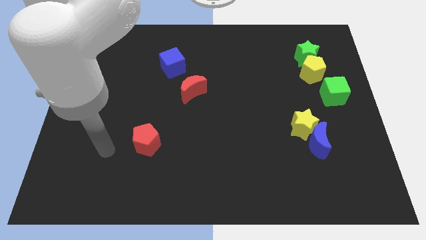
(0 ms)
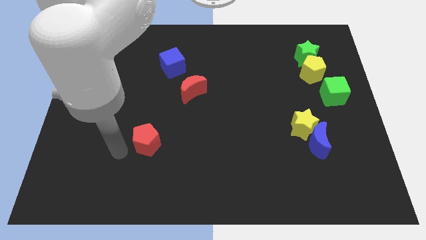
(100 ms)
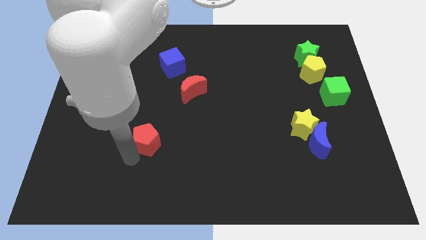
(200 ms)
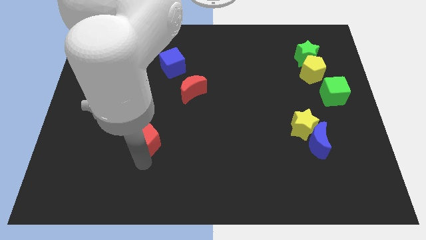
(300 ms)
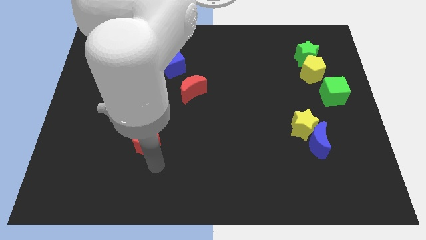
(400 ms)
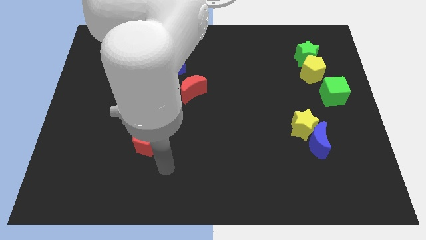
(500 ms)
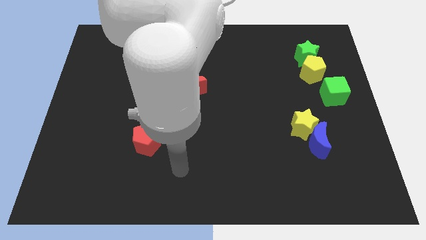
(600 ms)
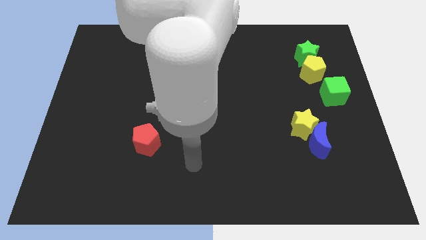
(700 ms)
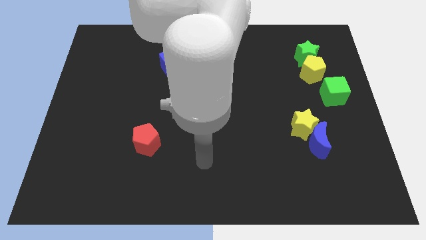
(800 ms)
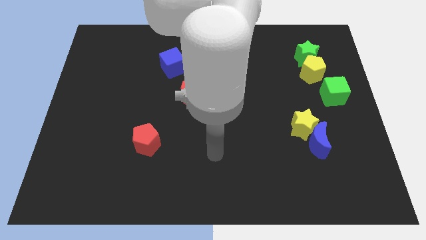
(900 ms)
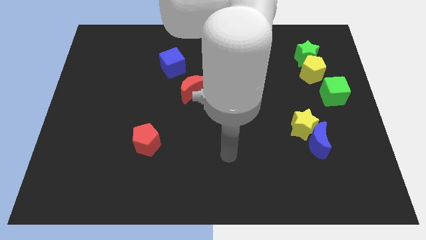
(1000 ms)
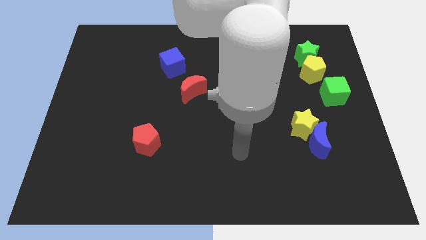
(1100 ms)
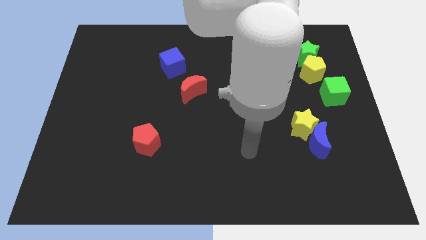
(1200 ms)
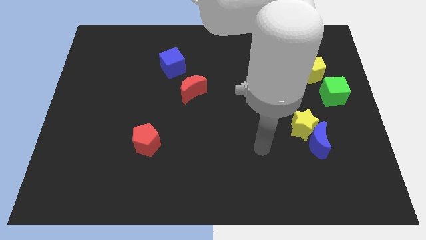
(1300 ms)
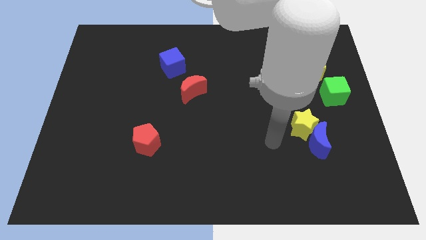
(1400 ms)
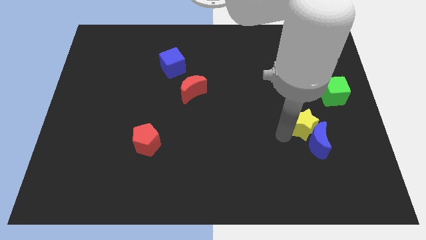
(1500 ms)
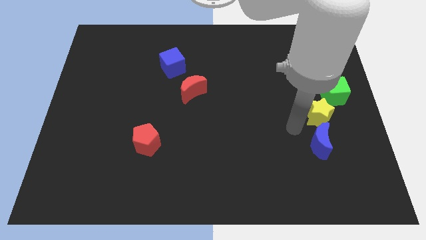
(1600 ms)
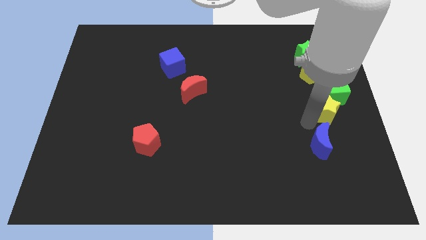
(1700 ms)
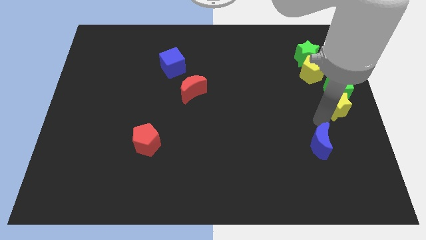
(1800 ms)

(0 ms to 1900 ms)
separate the blue moon from the yellow star

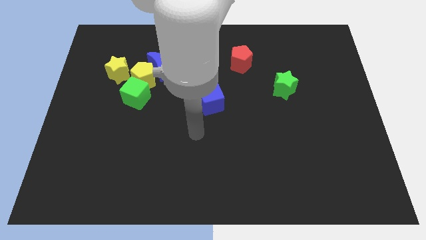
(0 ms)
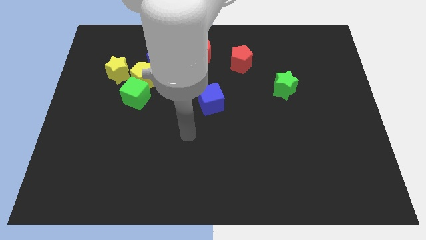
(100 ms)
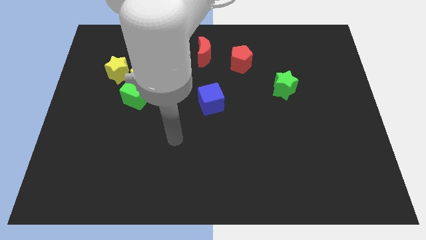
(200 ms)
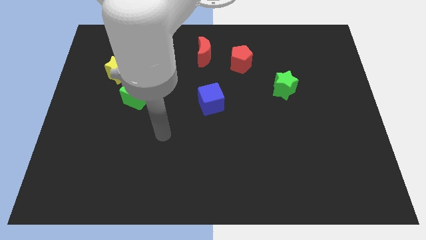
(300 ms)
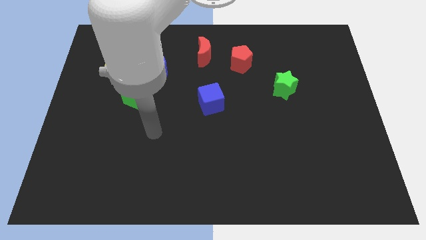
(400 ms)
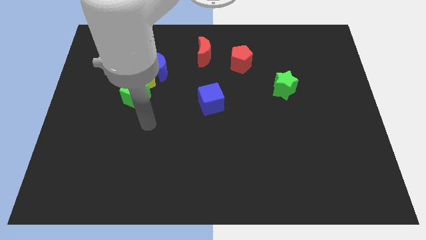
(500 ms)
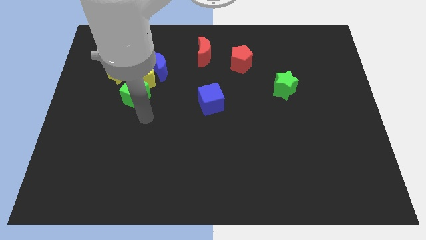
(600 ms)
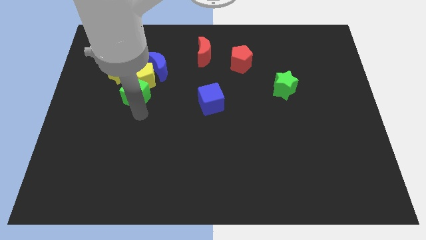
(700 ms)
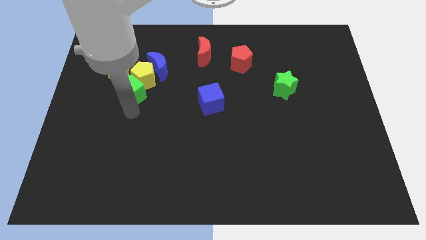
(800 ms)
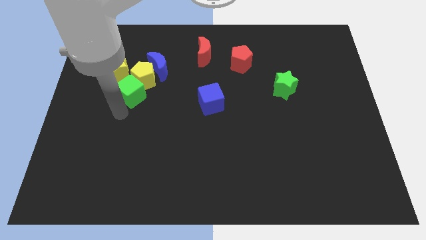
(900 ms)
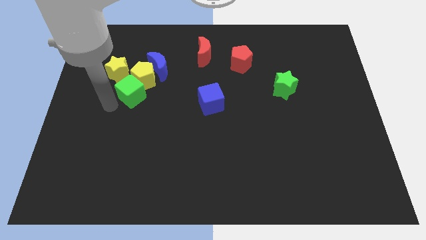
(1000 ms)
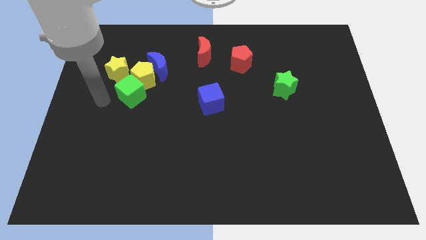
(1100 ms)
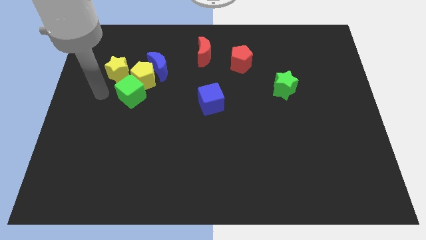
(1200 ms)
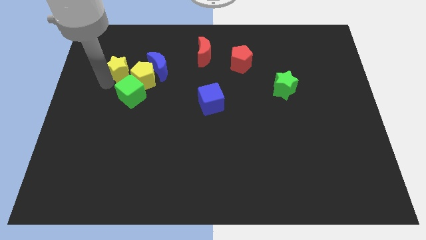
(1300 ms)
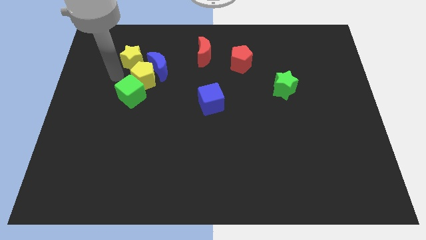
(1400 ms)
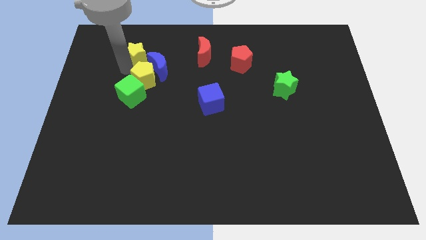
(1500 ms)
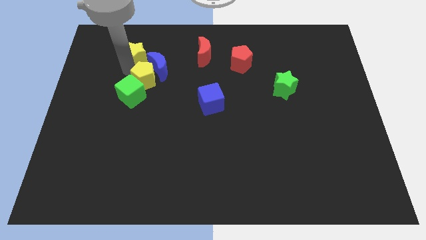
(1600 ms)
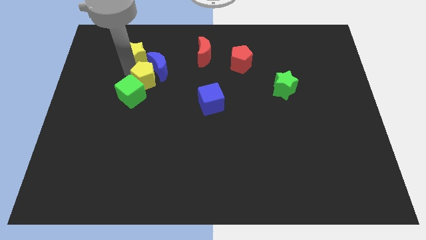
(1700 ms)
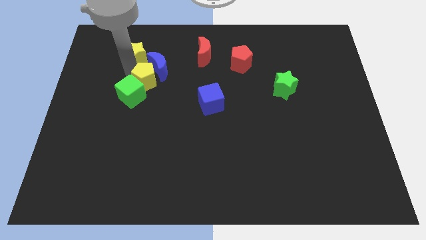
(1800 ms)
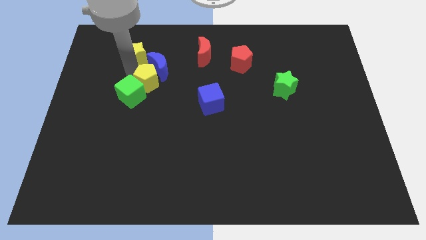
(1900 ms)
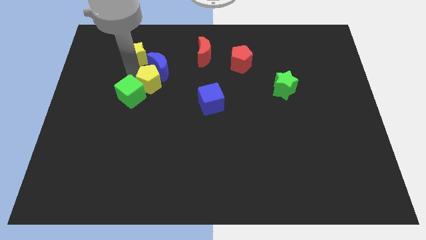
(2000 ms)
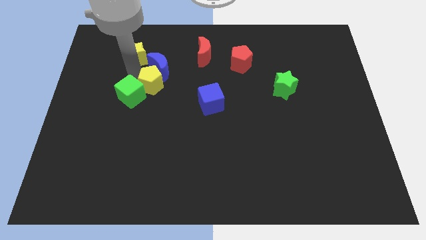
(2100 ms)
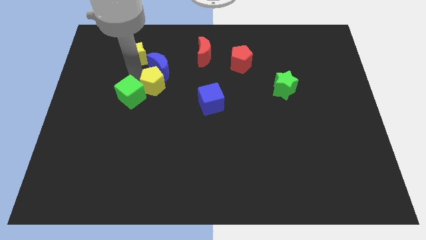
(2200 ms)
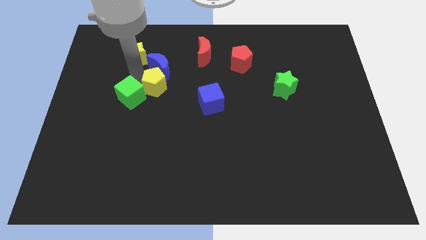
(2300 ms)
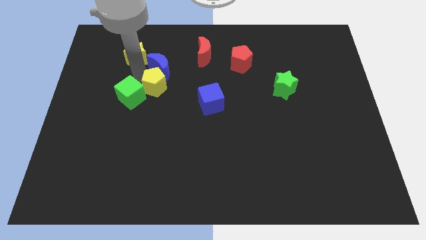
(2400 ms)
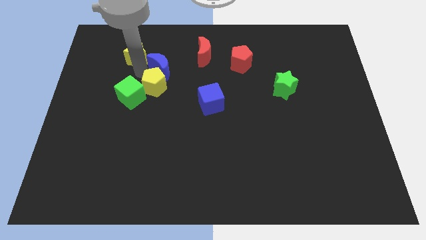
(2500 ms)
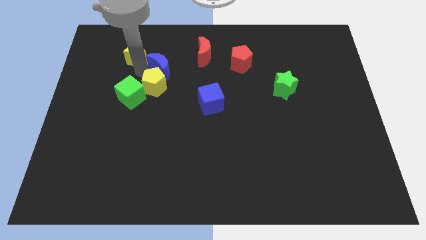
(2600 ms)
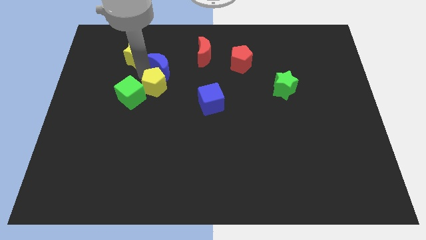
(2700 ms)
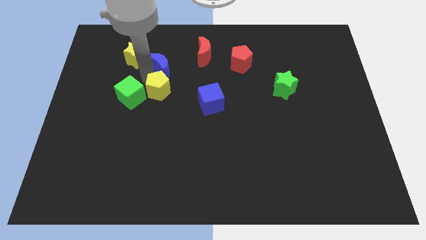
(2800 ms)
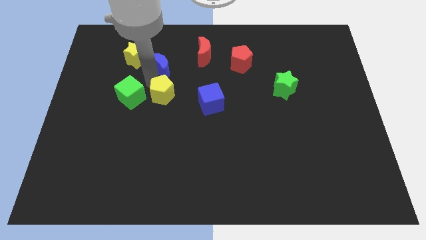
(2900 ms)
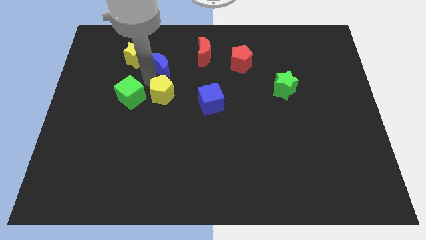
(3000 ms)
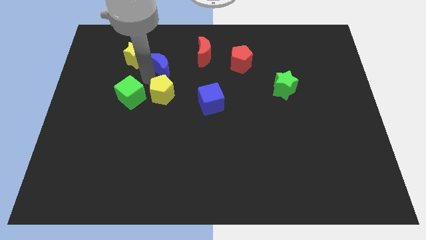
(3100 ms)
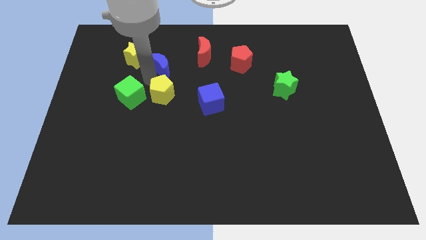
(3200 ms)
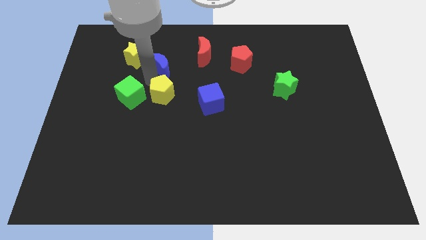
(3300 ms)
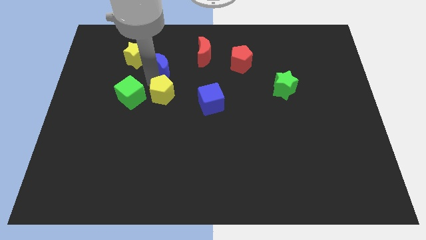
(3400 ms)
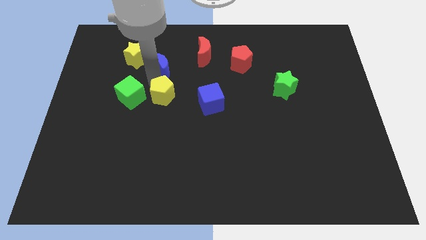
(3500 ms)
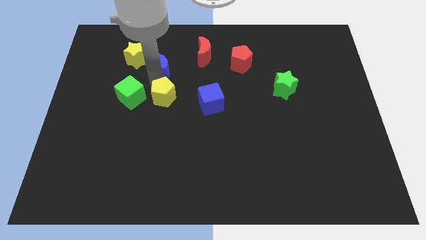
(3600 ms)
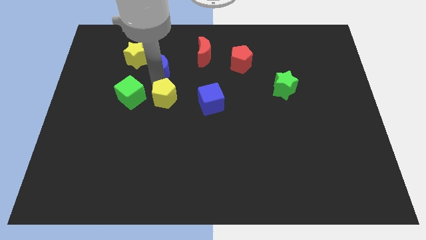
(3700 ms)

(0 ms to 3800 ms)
separate the yellow pentagon from the blue moon, green cube, and yellow star

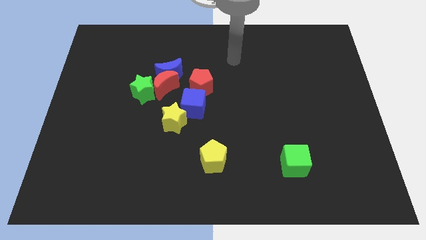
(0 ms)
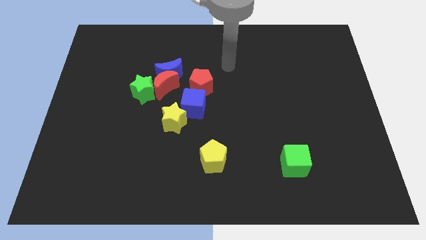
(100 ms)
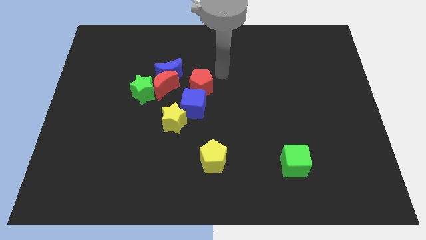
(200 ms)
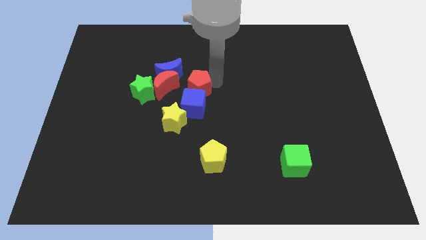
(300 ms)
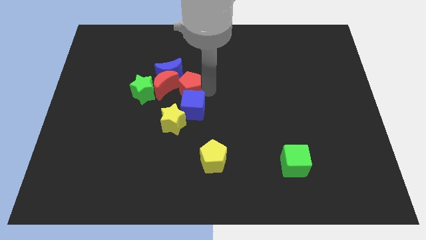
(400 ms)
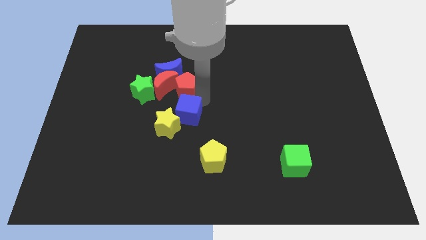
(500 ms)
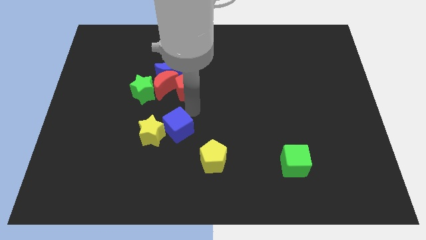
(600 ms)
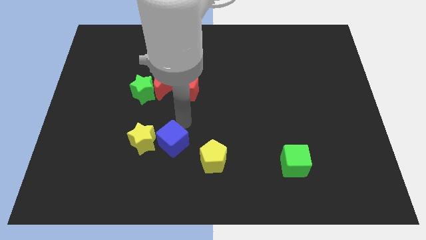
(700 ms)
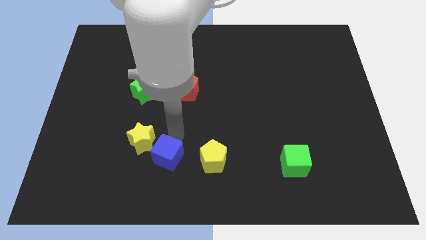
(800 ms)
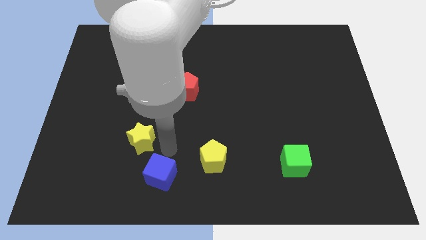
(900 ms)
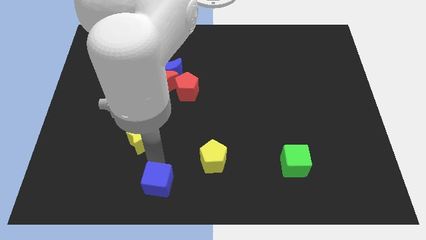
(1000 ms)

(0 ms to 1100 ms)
pull the yellow star apart from the blue cube

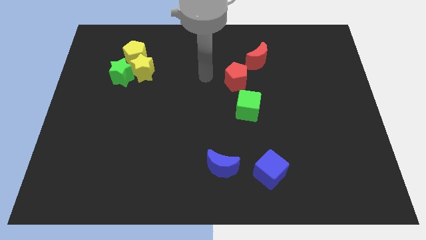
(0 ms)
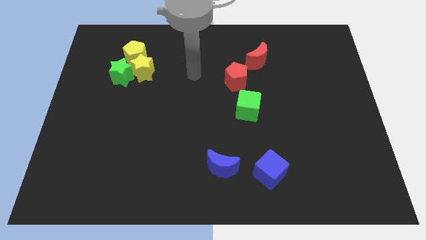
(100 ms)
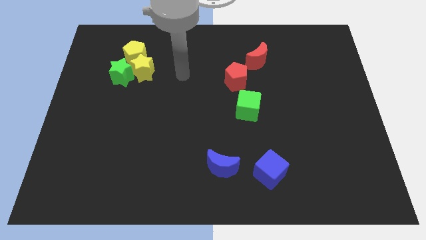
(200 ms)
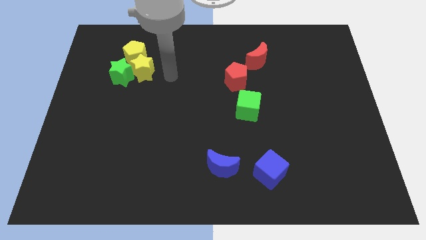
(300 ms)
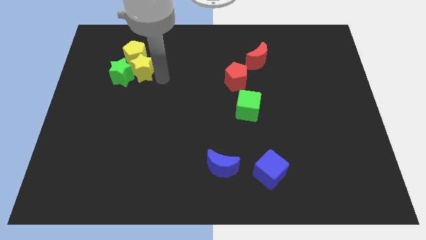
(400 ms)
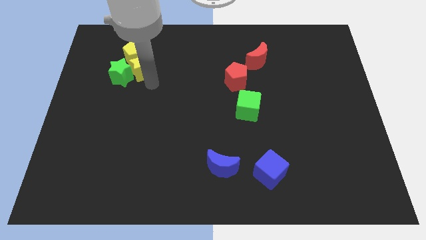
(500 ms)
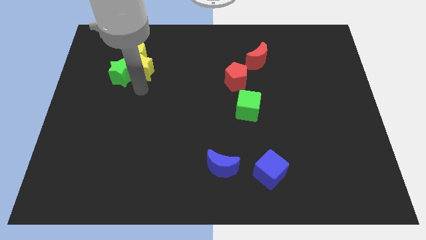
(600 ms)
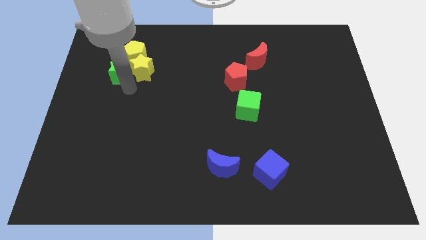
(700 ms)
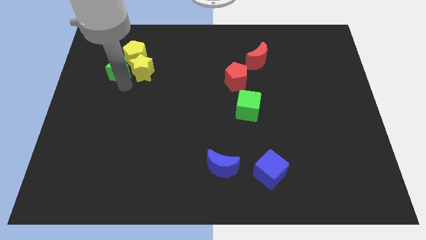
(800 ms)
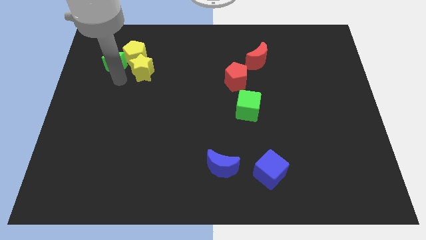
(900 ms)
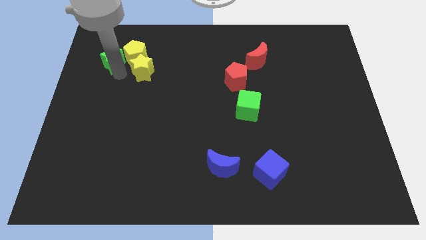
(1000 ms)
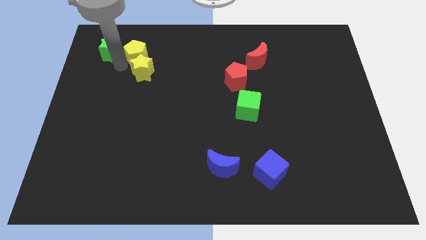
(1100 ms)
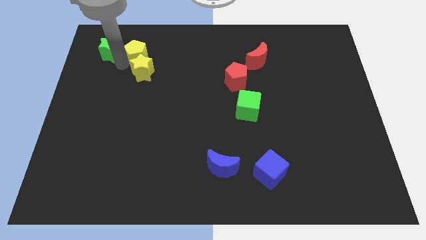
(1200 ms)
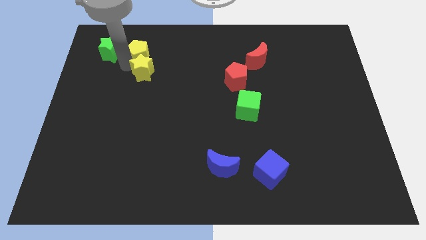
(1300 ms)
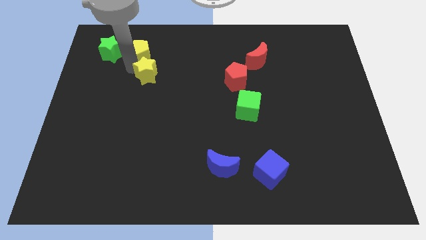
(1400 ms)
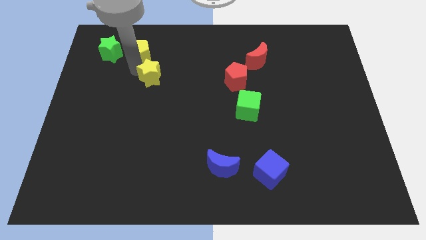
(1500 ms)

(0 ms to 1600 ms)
separate the yellow star from the green star and yellow pentagon

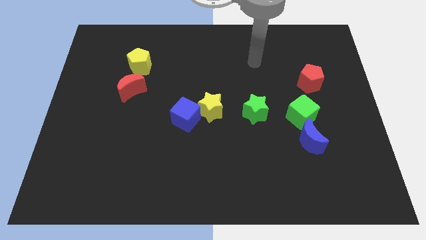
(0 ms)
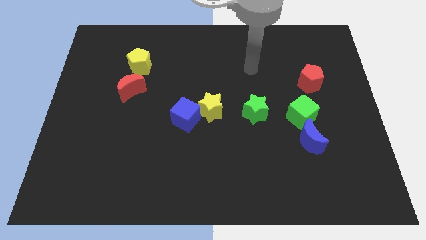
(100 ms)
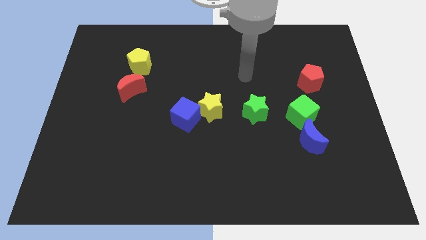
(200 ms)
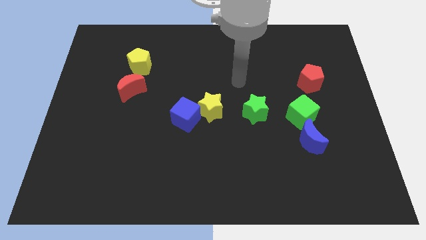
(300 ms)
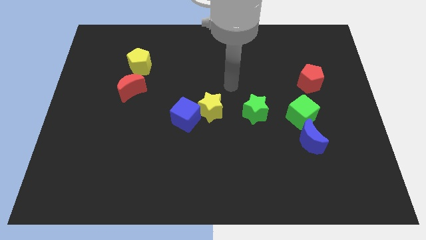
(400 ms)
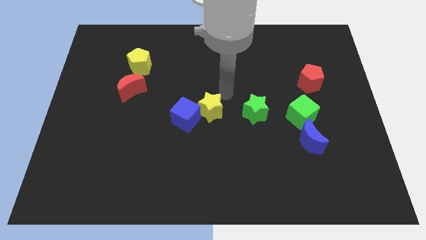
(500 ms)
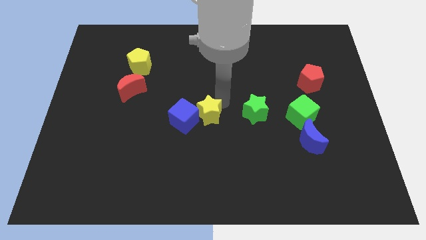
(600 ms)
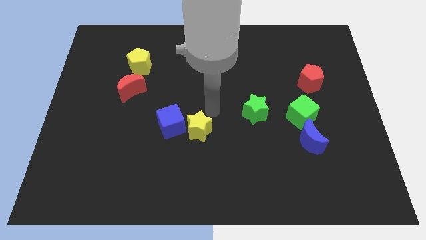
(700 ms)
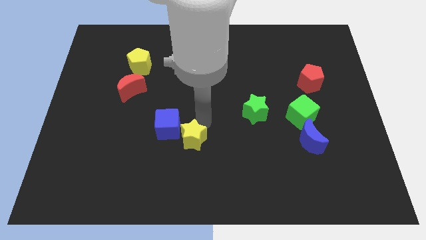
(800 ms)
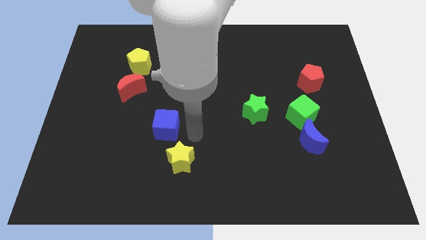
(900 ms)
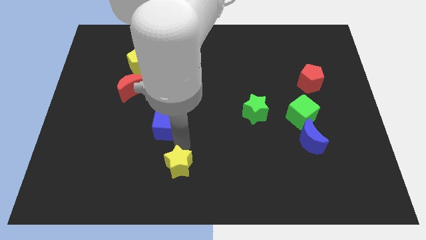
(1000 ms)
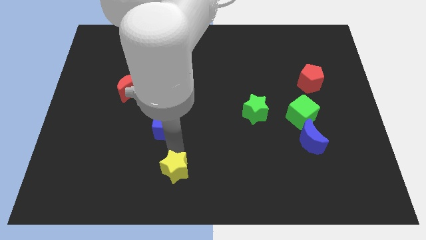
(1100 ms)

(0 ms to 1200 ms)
separate the blue cube from the yellow star
